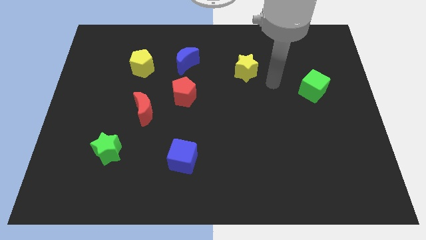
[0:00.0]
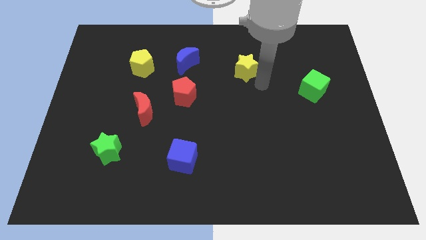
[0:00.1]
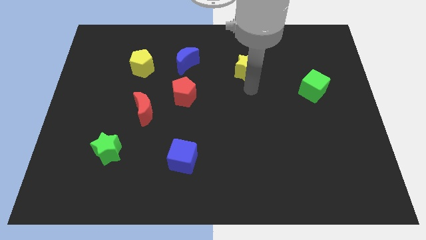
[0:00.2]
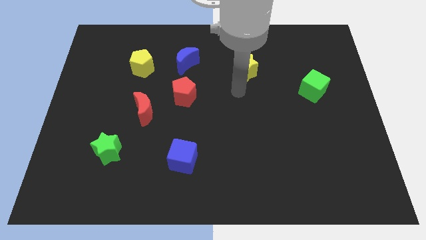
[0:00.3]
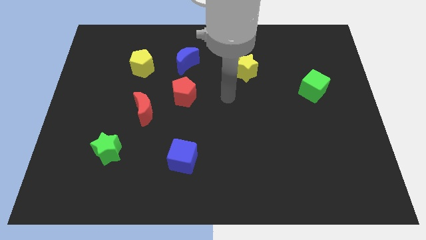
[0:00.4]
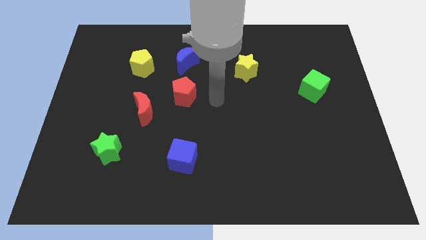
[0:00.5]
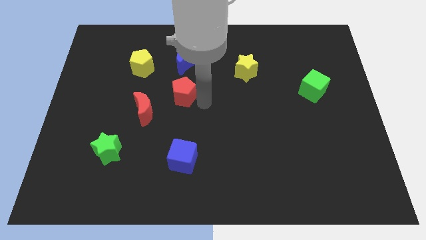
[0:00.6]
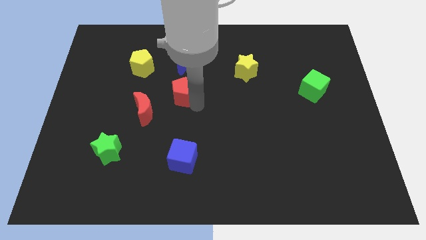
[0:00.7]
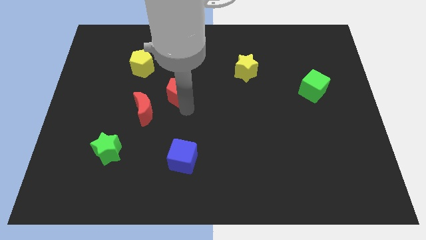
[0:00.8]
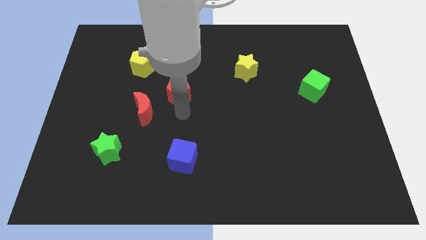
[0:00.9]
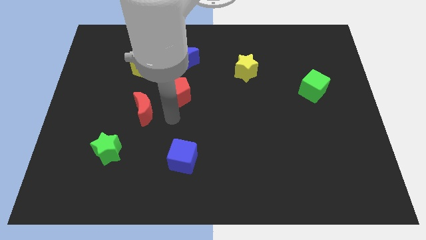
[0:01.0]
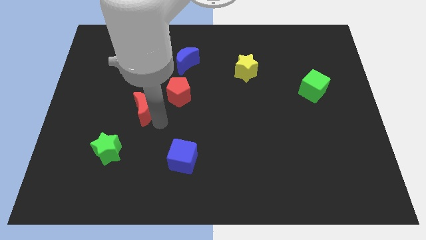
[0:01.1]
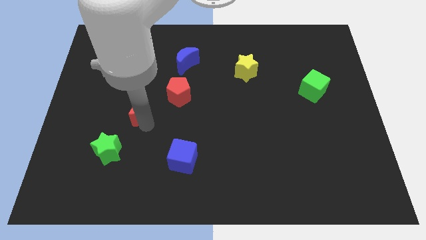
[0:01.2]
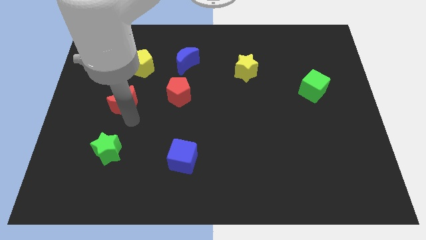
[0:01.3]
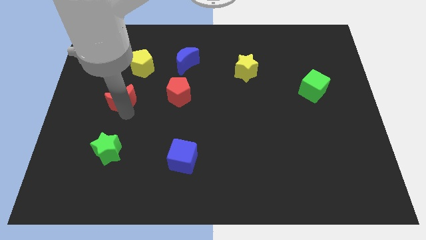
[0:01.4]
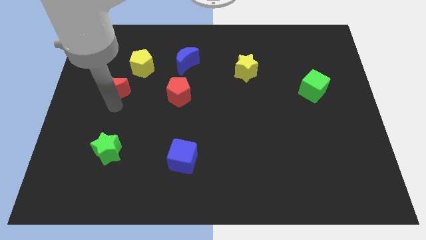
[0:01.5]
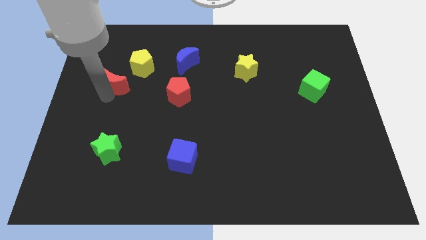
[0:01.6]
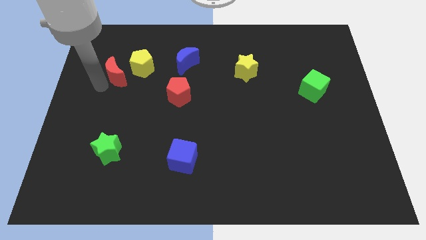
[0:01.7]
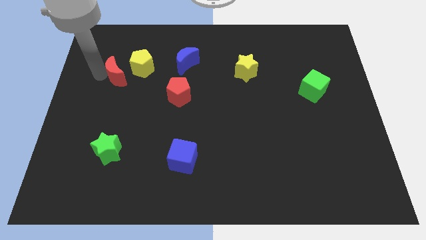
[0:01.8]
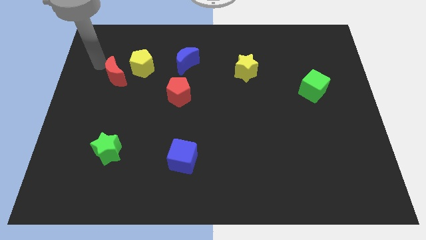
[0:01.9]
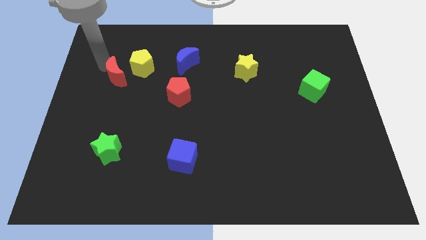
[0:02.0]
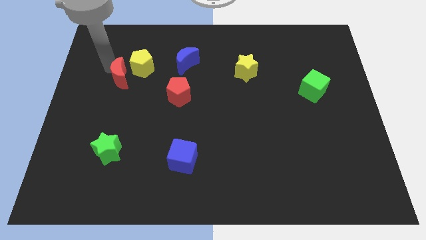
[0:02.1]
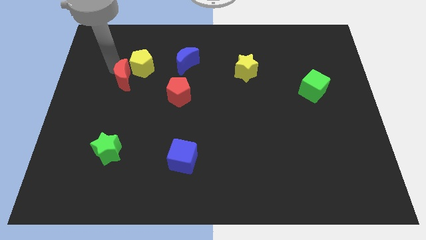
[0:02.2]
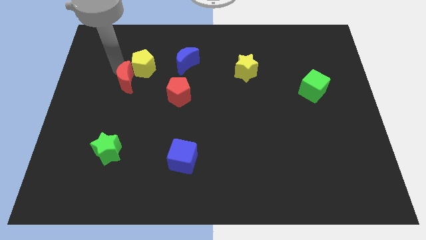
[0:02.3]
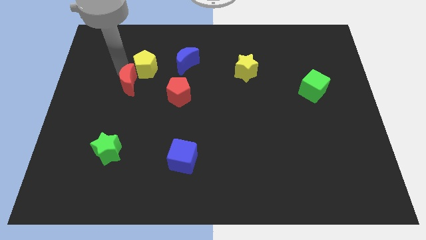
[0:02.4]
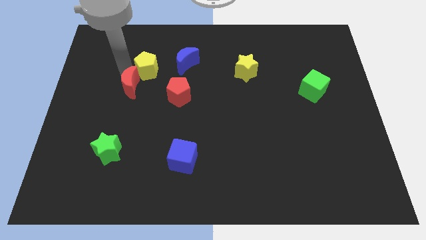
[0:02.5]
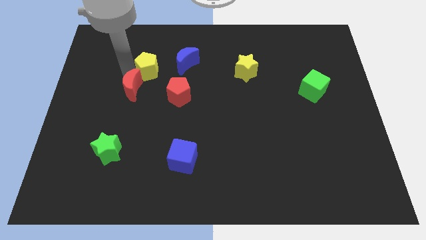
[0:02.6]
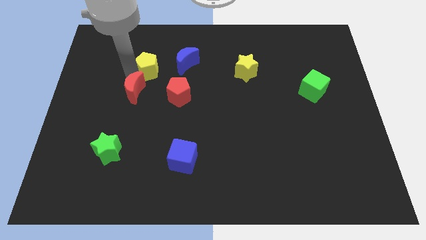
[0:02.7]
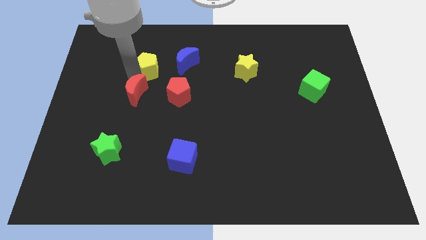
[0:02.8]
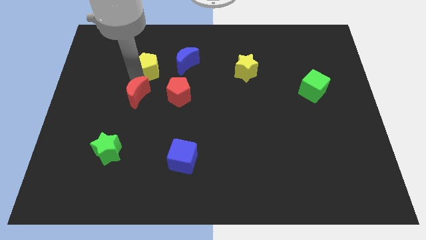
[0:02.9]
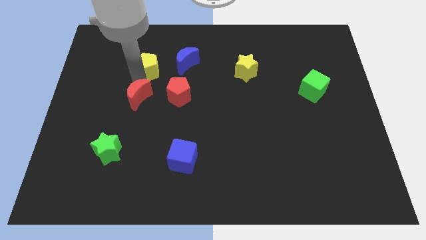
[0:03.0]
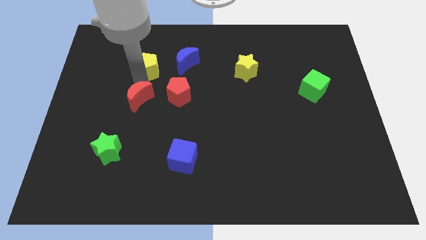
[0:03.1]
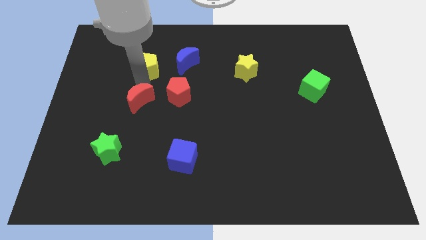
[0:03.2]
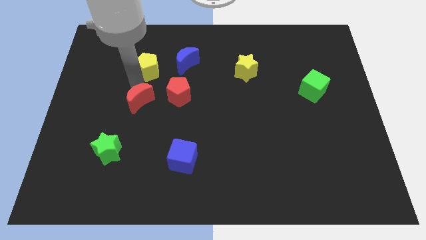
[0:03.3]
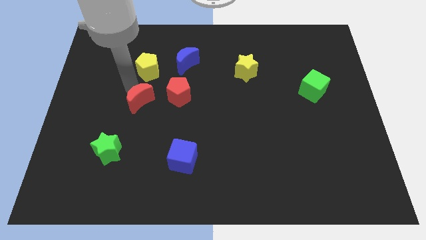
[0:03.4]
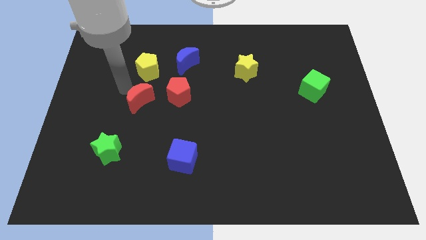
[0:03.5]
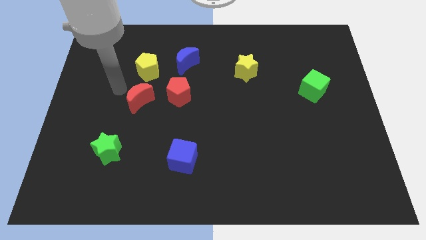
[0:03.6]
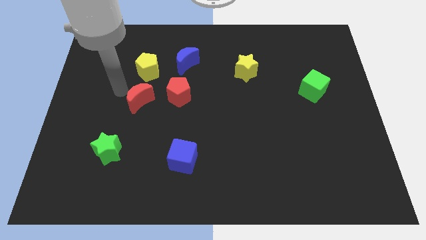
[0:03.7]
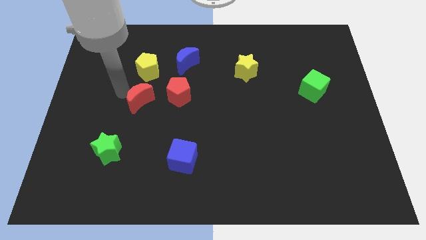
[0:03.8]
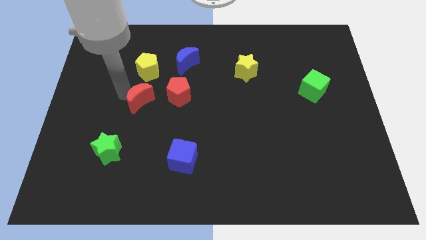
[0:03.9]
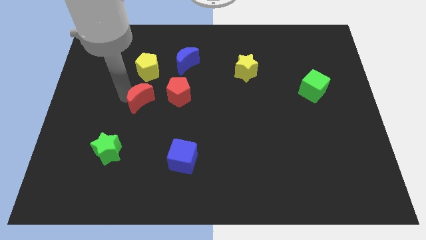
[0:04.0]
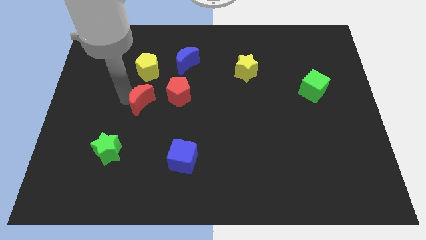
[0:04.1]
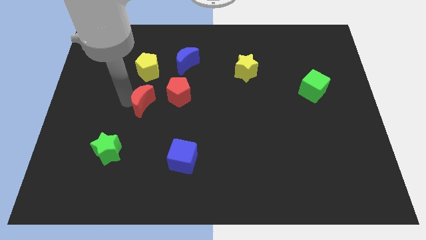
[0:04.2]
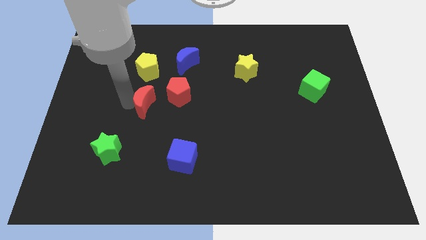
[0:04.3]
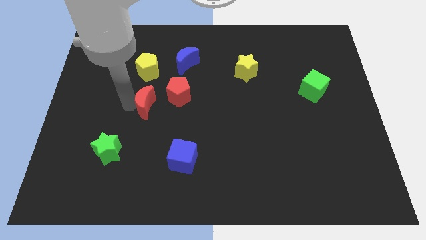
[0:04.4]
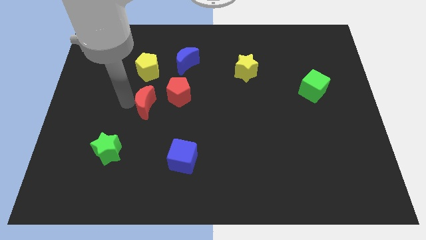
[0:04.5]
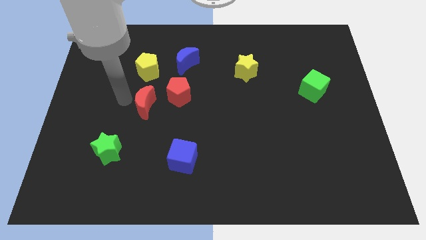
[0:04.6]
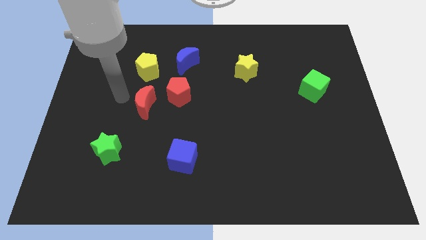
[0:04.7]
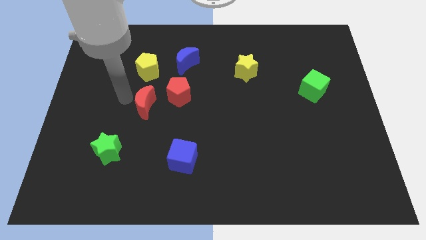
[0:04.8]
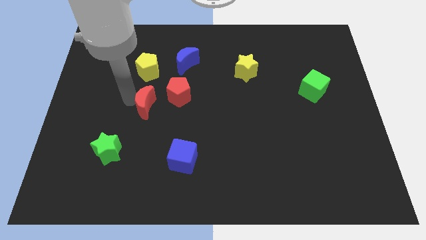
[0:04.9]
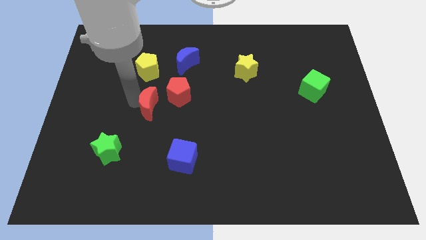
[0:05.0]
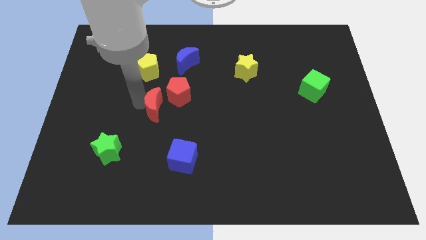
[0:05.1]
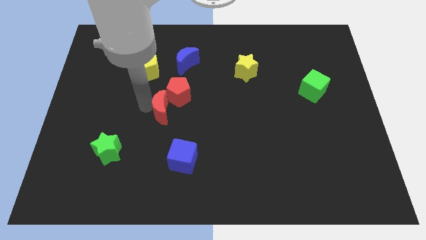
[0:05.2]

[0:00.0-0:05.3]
slide the red moon to the center
